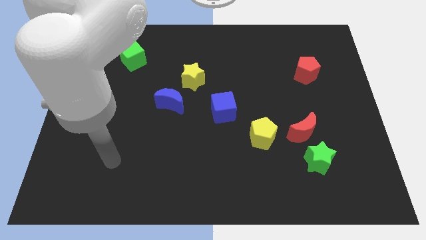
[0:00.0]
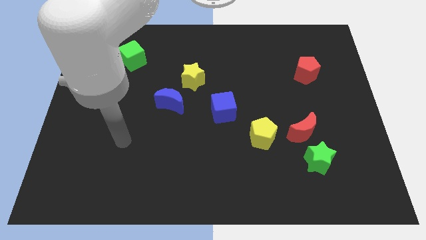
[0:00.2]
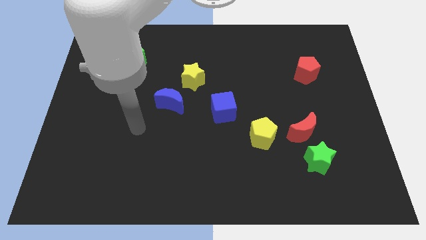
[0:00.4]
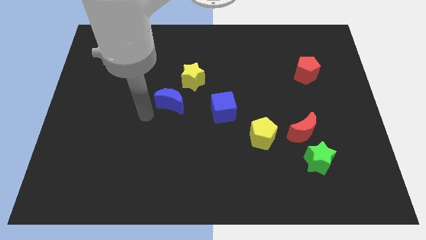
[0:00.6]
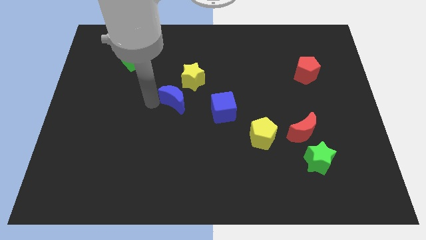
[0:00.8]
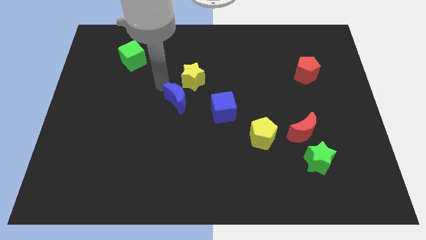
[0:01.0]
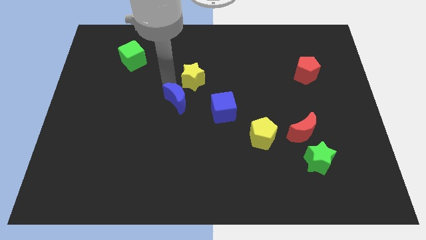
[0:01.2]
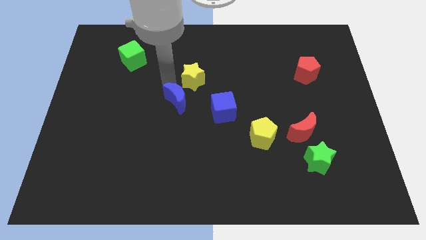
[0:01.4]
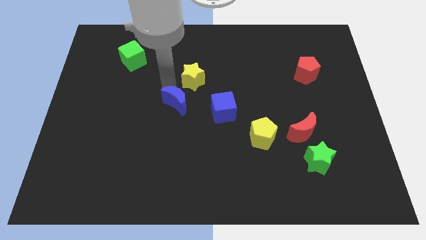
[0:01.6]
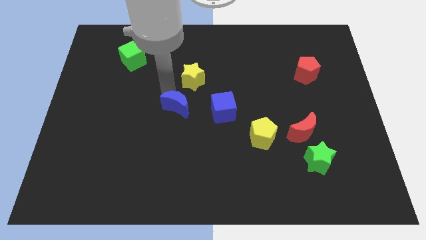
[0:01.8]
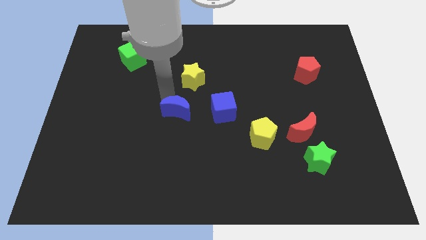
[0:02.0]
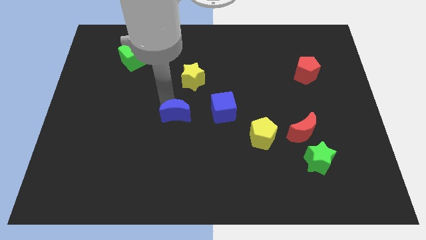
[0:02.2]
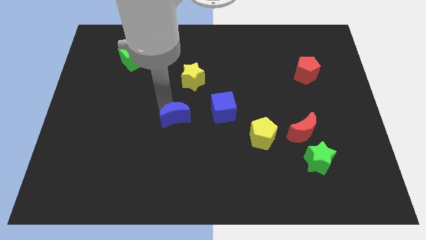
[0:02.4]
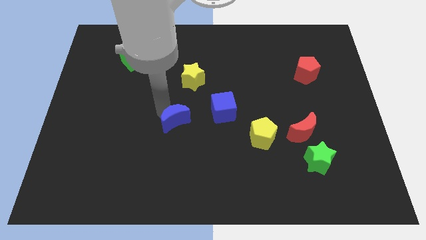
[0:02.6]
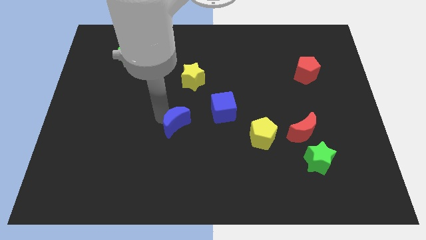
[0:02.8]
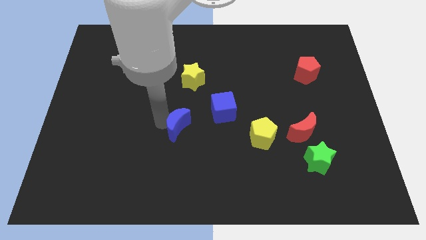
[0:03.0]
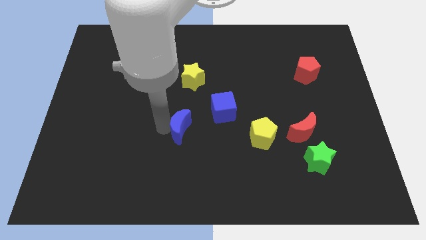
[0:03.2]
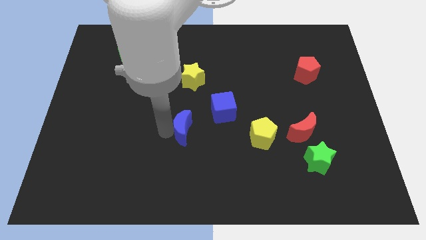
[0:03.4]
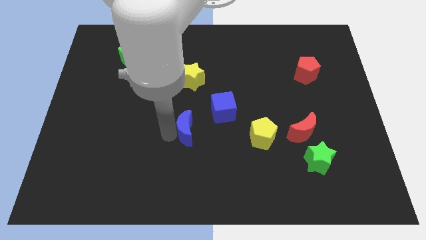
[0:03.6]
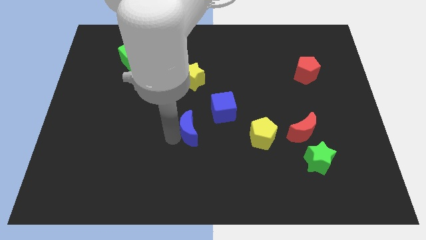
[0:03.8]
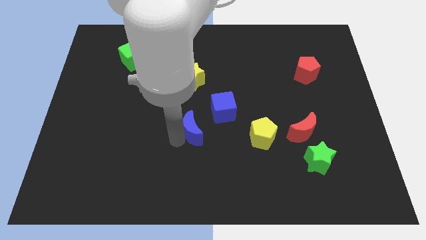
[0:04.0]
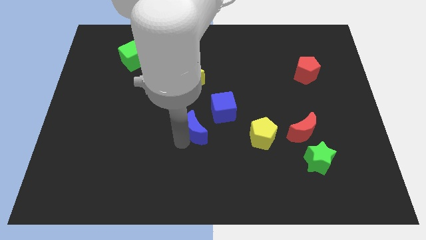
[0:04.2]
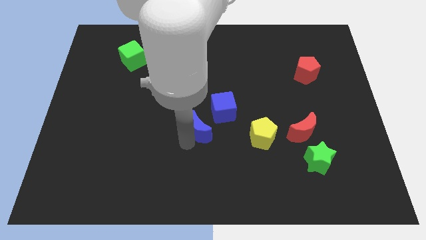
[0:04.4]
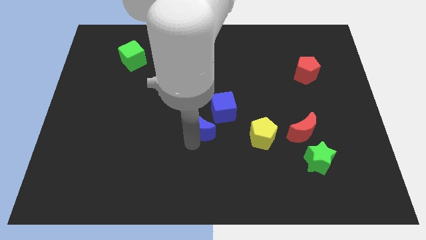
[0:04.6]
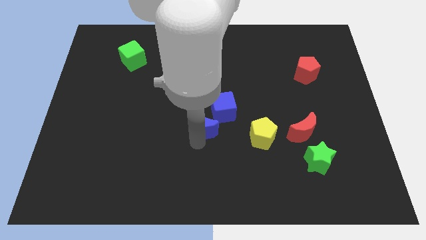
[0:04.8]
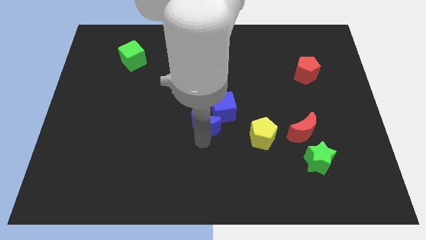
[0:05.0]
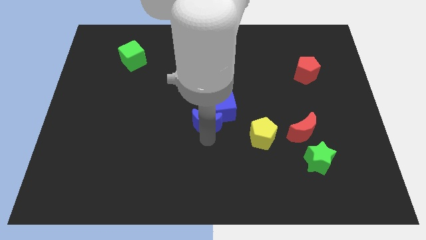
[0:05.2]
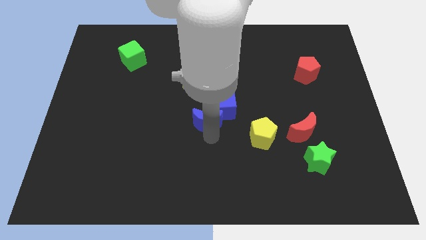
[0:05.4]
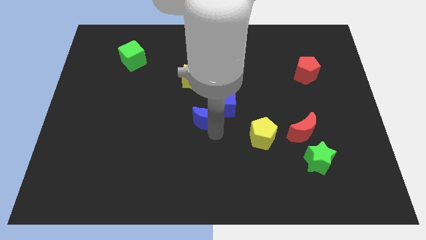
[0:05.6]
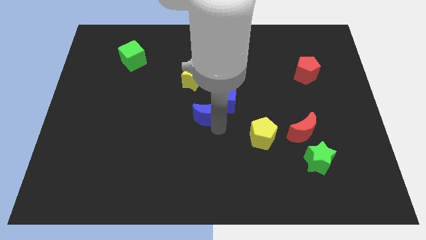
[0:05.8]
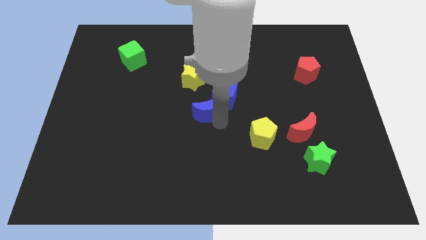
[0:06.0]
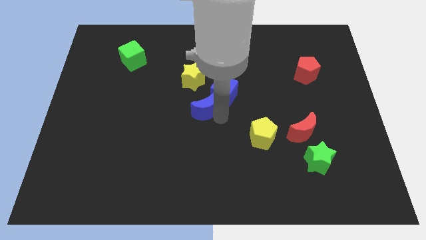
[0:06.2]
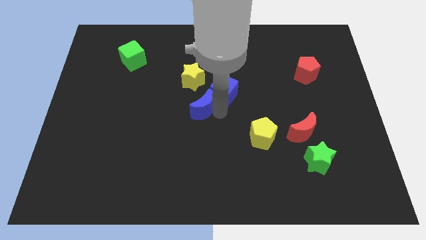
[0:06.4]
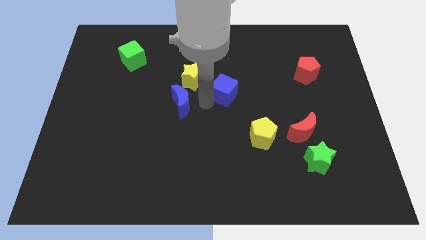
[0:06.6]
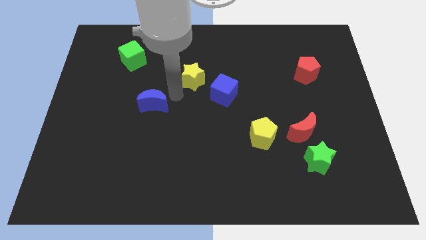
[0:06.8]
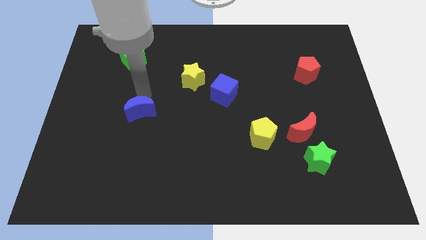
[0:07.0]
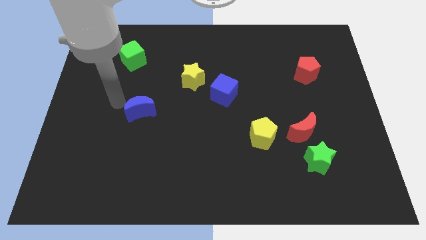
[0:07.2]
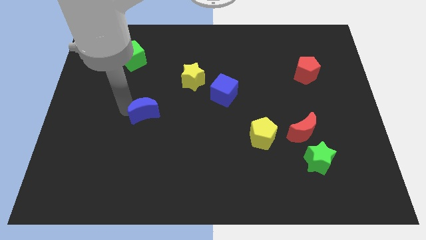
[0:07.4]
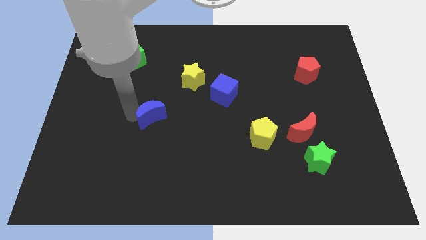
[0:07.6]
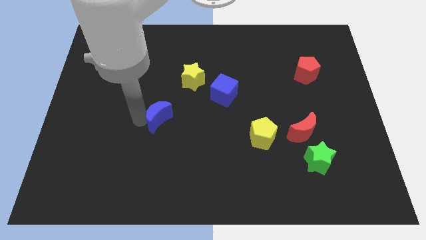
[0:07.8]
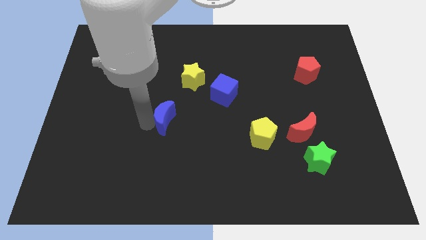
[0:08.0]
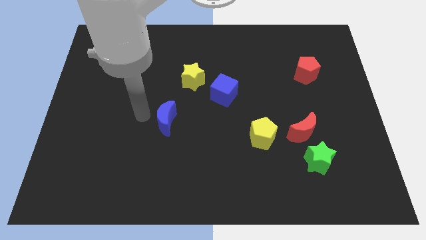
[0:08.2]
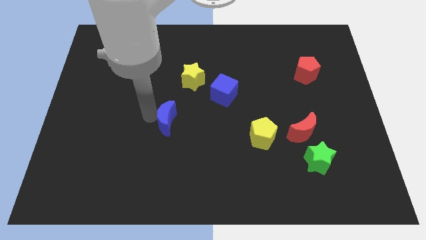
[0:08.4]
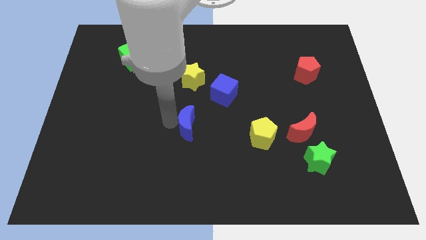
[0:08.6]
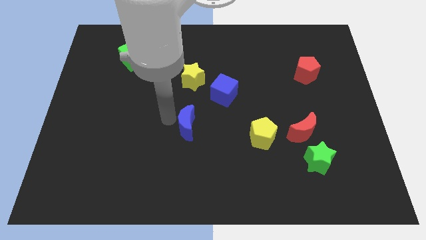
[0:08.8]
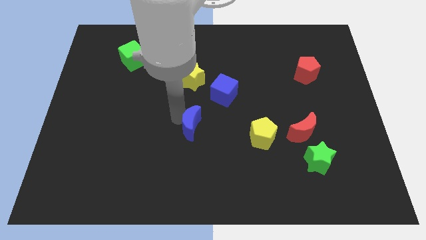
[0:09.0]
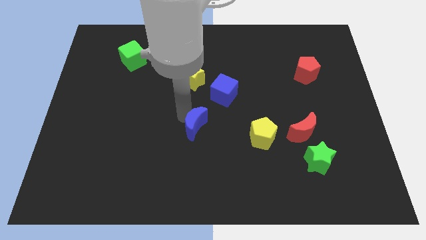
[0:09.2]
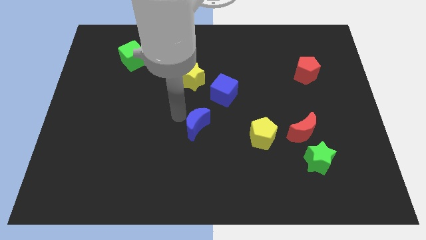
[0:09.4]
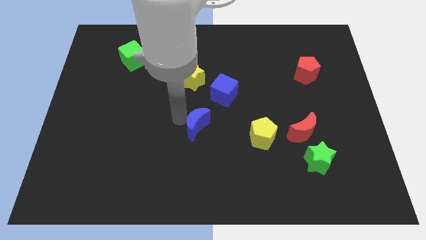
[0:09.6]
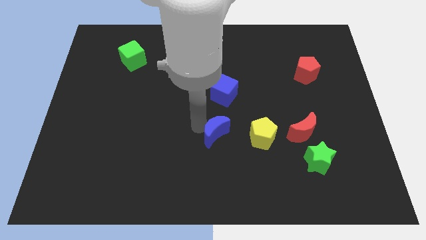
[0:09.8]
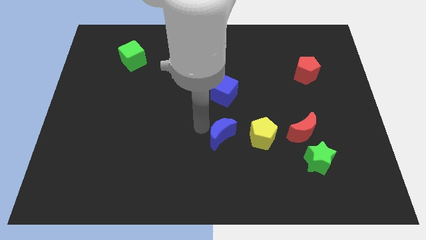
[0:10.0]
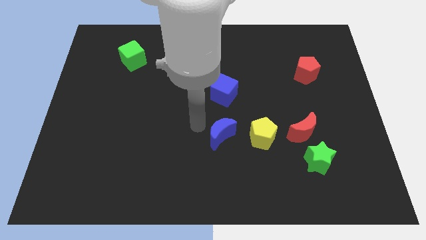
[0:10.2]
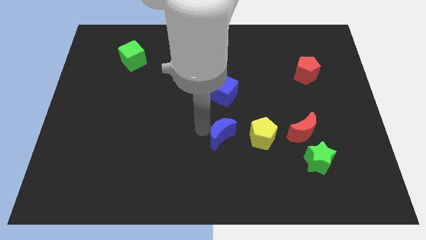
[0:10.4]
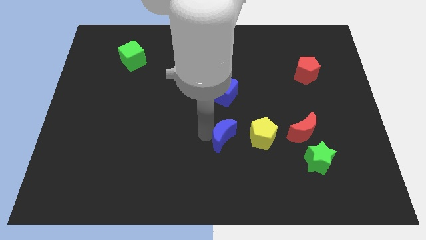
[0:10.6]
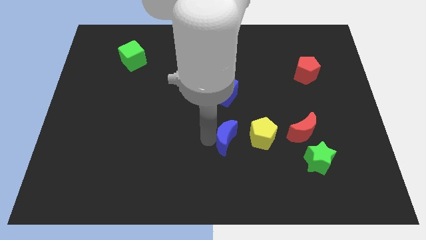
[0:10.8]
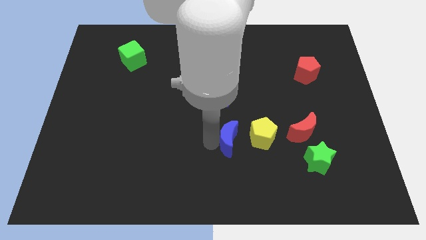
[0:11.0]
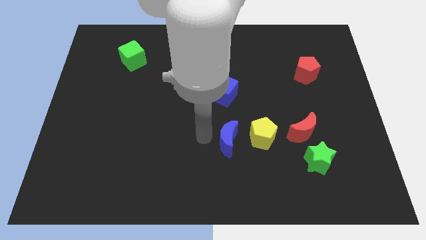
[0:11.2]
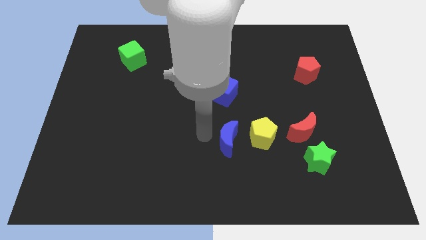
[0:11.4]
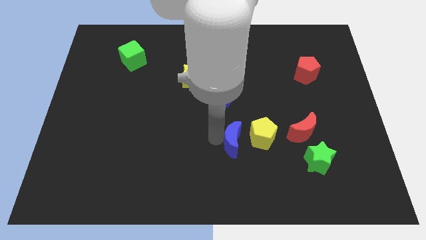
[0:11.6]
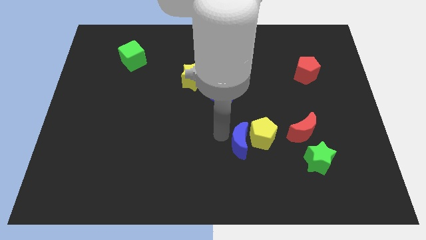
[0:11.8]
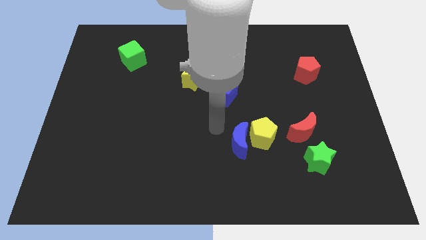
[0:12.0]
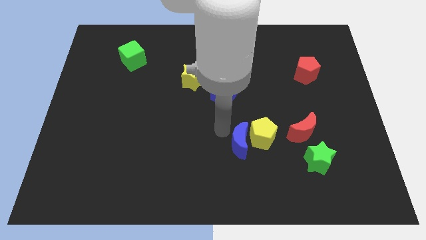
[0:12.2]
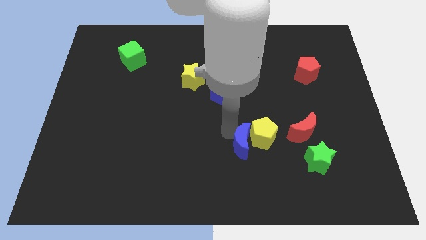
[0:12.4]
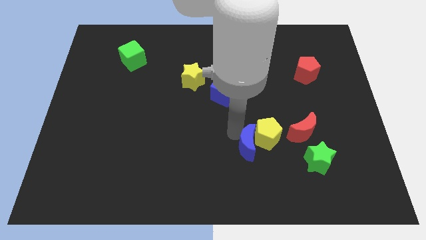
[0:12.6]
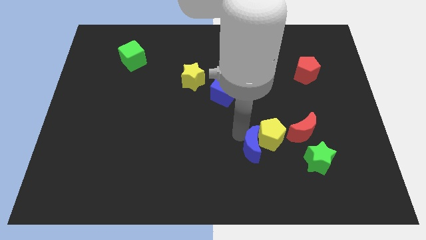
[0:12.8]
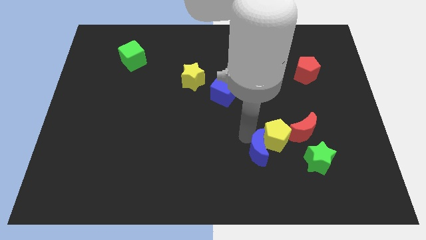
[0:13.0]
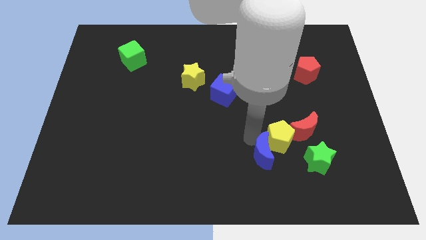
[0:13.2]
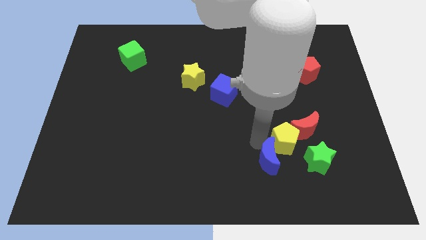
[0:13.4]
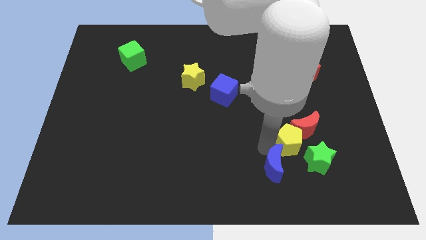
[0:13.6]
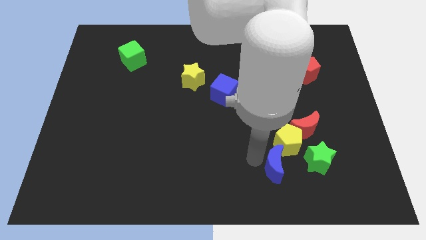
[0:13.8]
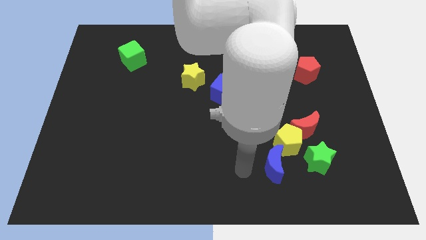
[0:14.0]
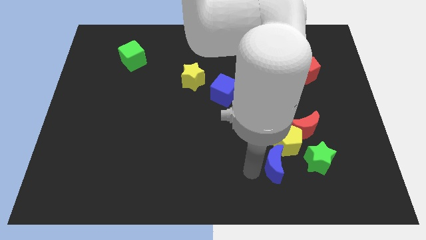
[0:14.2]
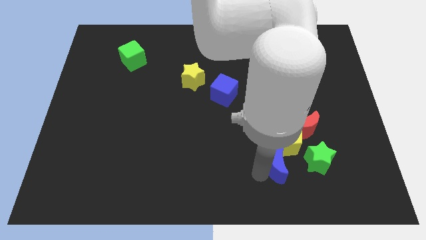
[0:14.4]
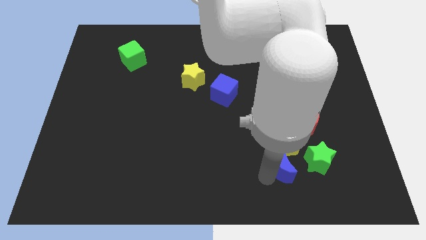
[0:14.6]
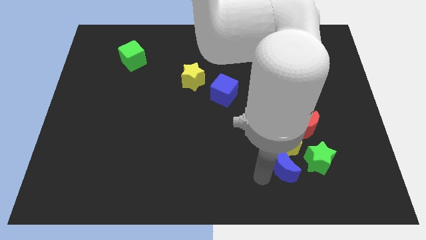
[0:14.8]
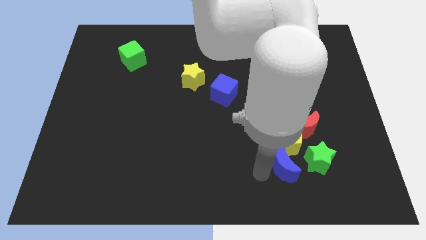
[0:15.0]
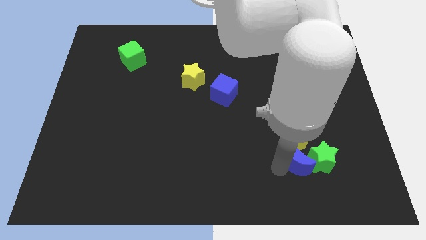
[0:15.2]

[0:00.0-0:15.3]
move the blue moon towards the green star
